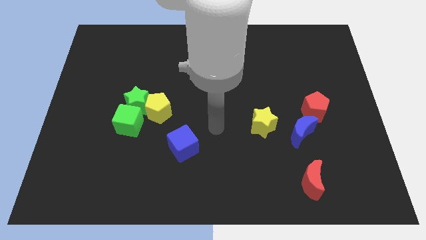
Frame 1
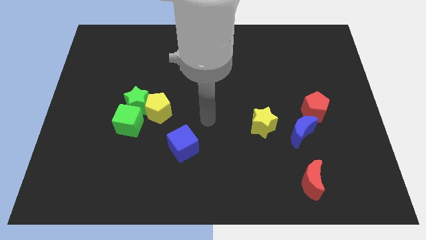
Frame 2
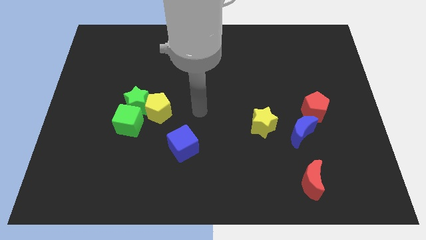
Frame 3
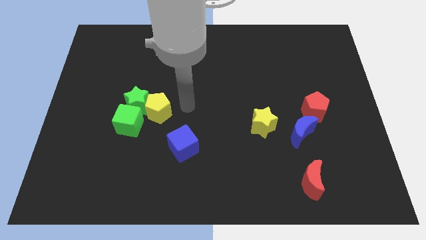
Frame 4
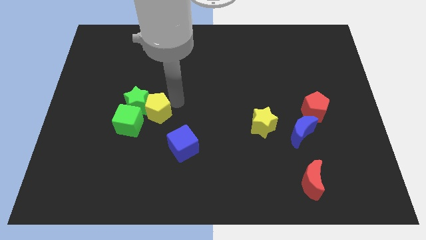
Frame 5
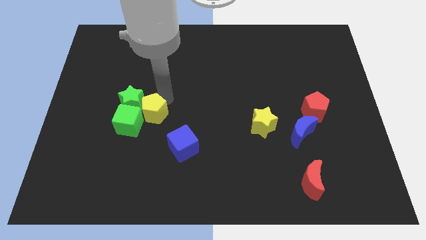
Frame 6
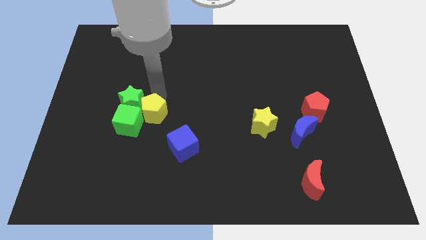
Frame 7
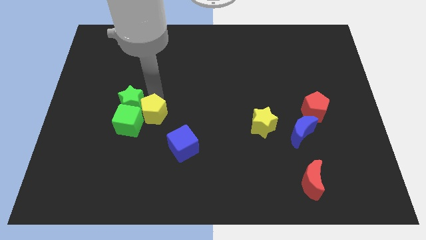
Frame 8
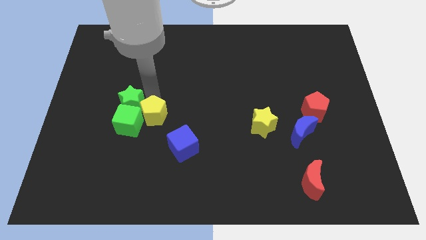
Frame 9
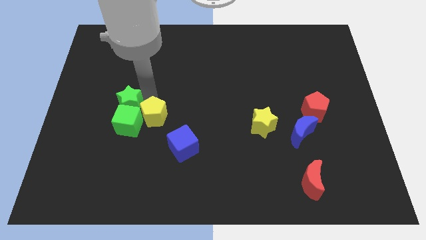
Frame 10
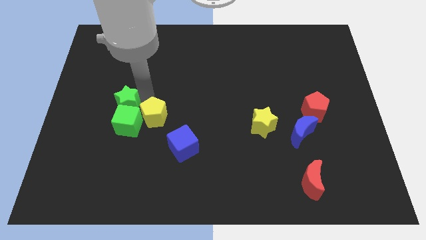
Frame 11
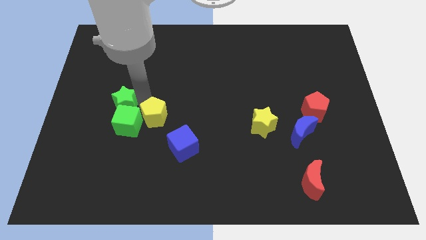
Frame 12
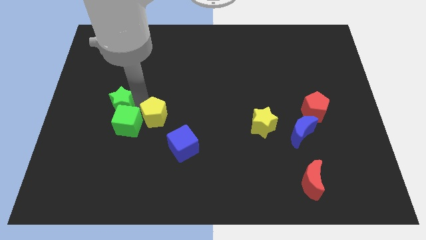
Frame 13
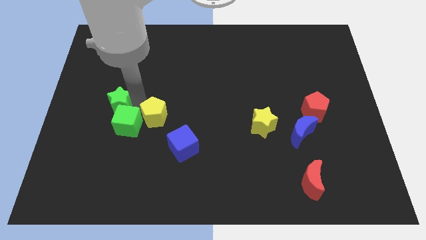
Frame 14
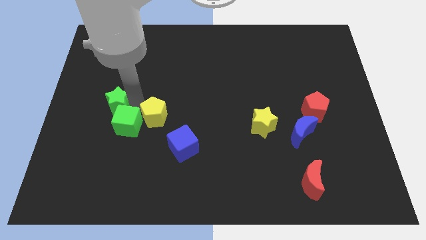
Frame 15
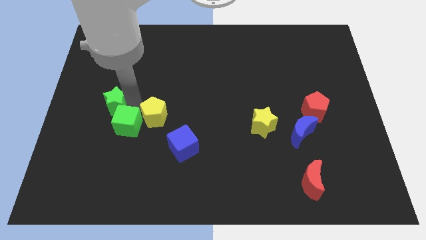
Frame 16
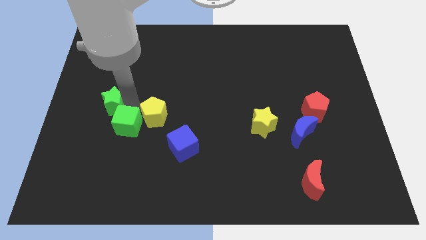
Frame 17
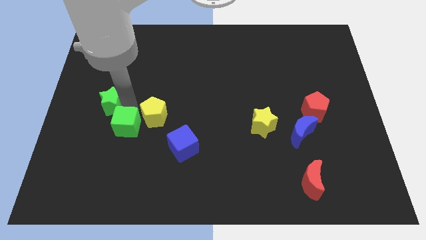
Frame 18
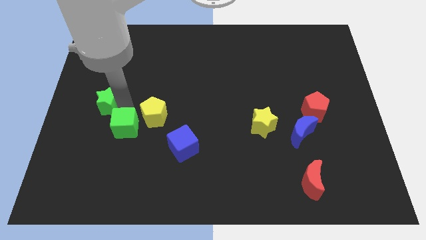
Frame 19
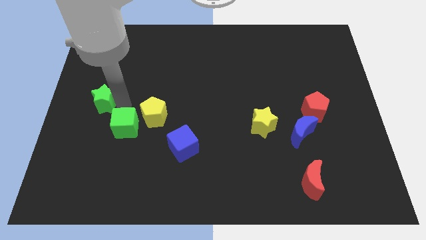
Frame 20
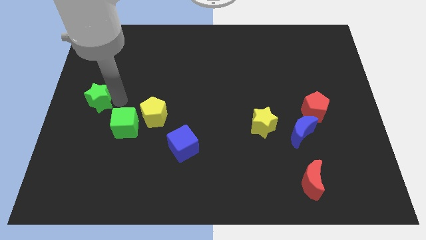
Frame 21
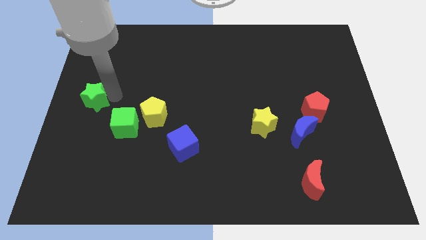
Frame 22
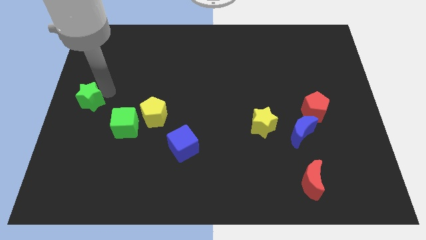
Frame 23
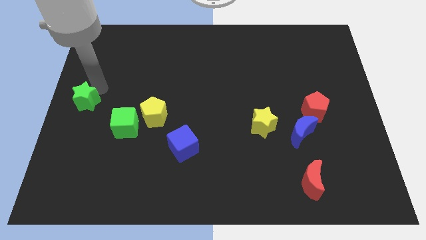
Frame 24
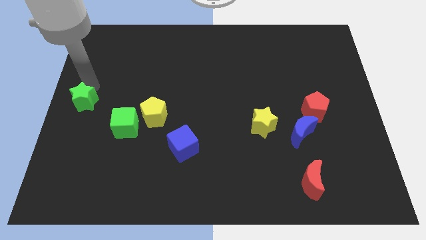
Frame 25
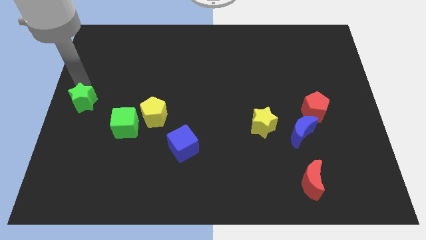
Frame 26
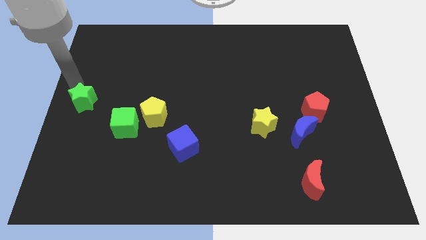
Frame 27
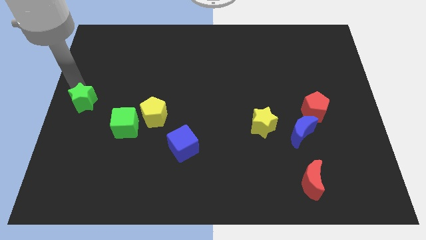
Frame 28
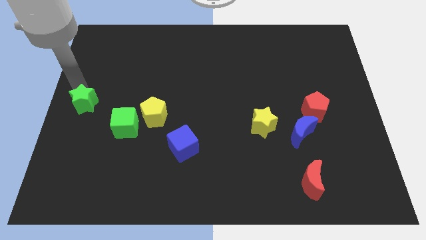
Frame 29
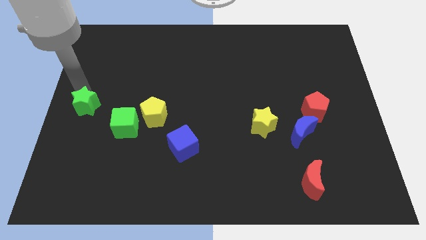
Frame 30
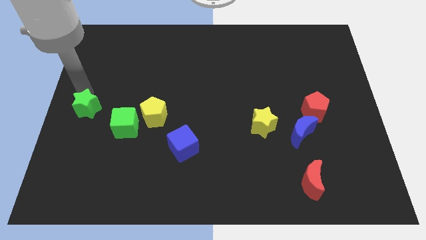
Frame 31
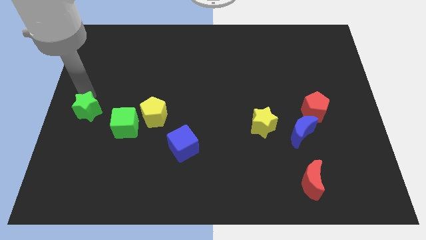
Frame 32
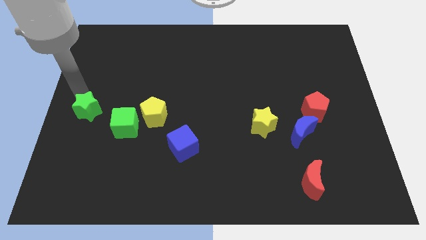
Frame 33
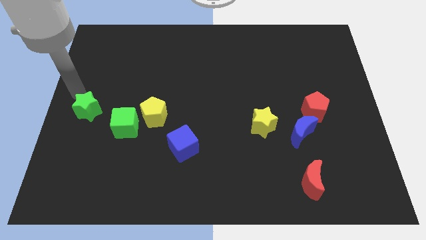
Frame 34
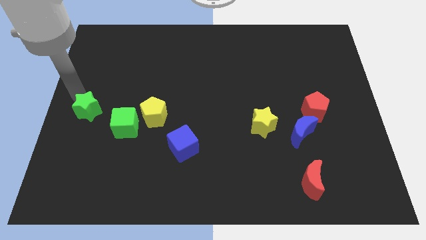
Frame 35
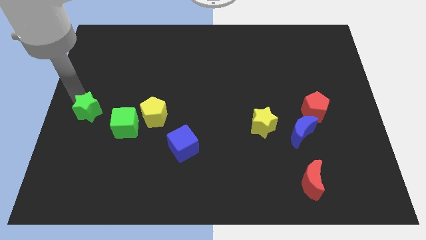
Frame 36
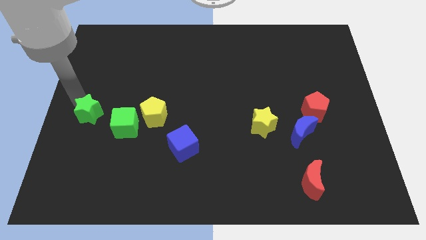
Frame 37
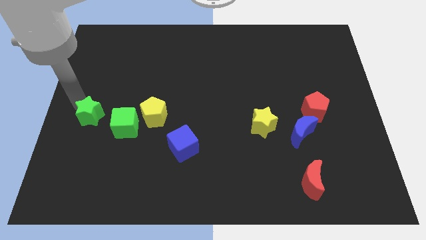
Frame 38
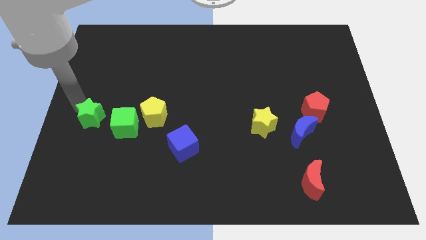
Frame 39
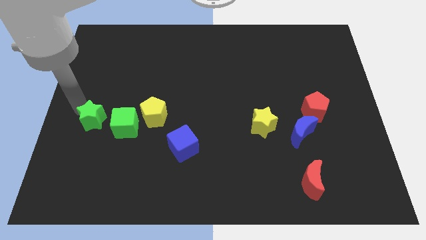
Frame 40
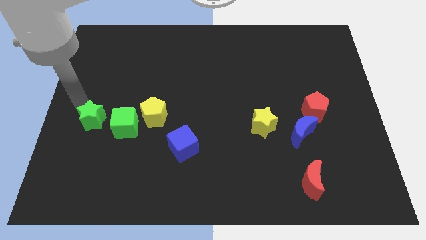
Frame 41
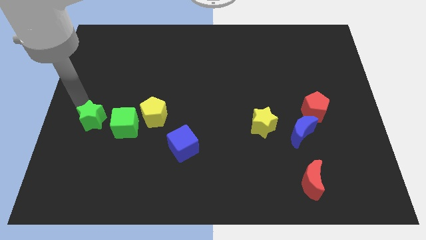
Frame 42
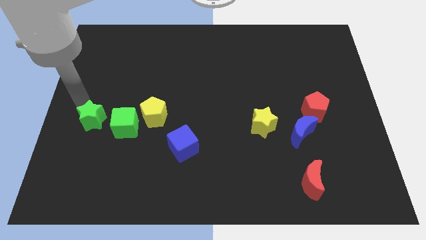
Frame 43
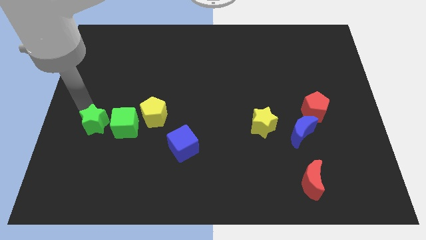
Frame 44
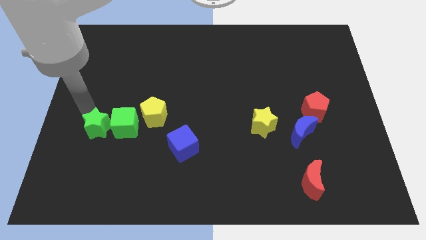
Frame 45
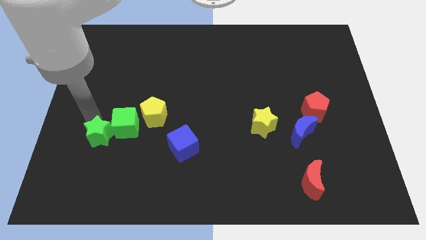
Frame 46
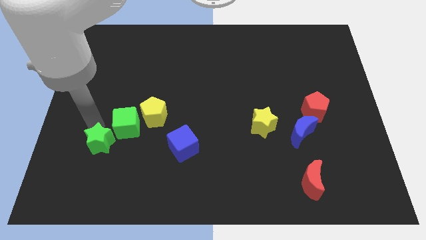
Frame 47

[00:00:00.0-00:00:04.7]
slide the green star downwards slightly

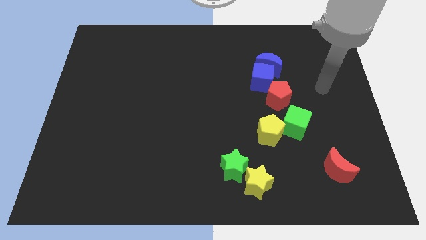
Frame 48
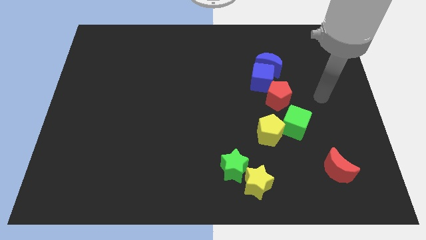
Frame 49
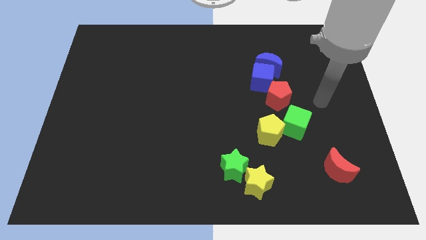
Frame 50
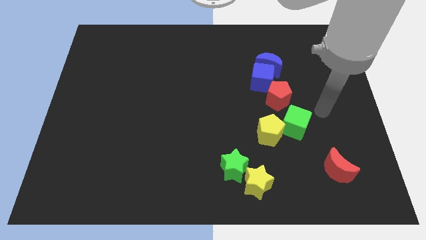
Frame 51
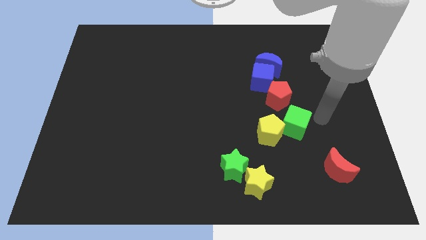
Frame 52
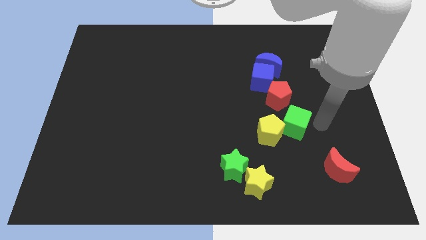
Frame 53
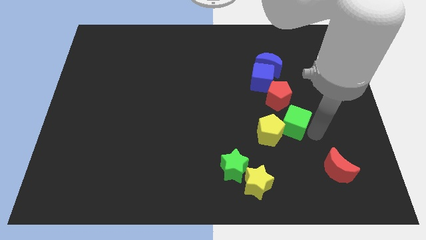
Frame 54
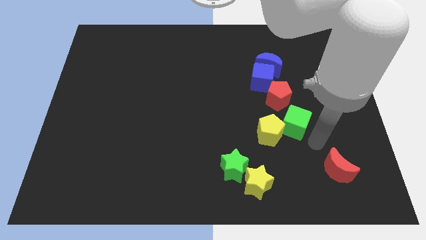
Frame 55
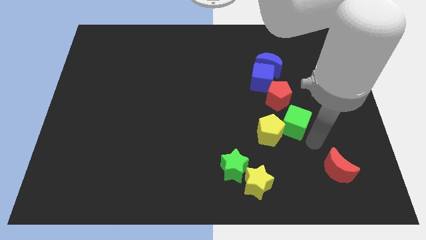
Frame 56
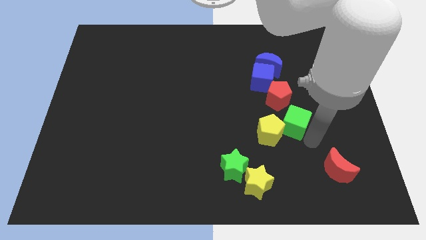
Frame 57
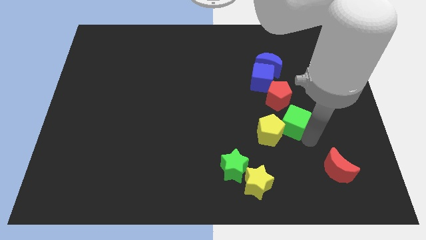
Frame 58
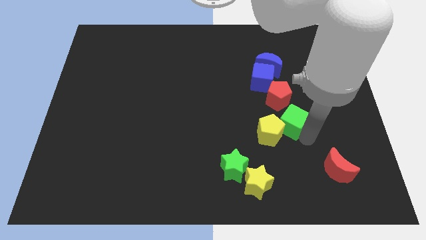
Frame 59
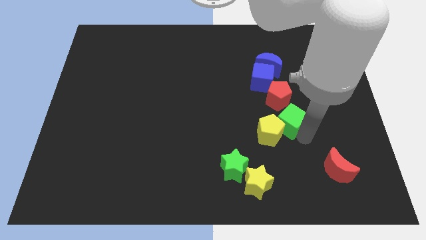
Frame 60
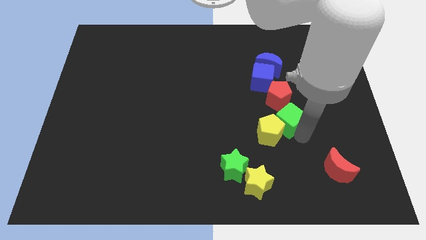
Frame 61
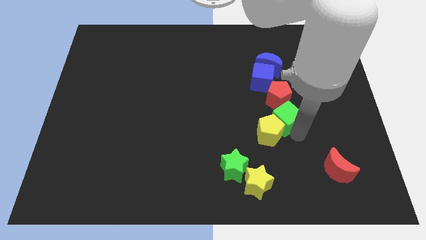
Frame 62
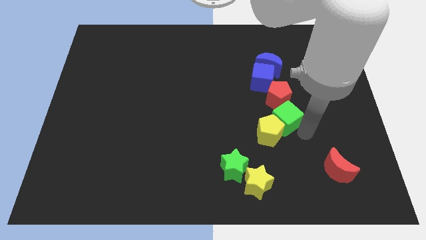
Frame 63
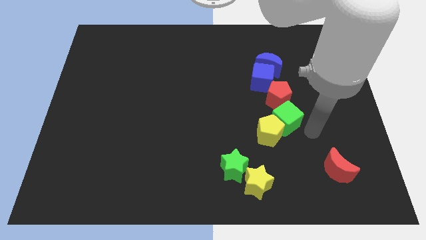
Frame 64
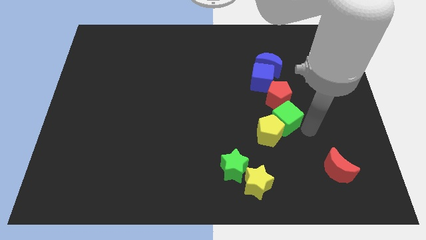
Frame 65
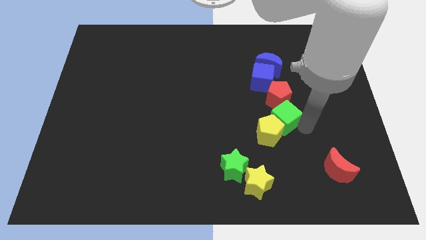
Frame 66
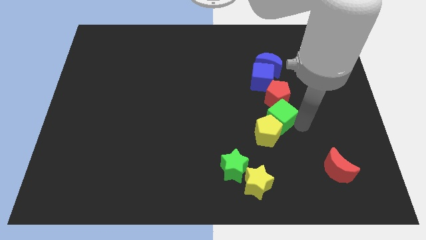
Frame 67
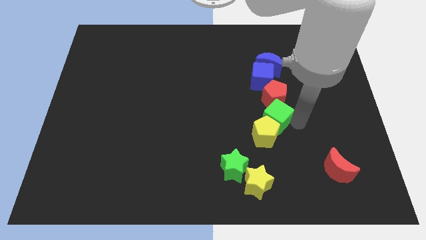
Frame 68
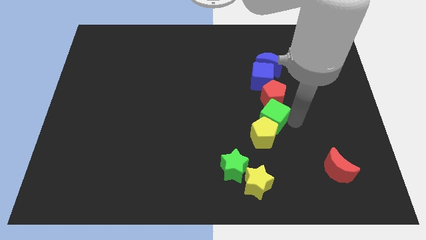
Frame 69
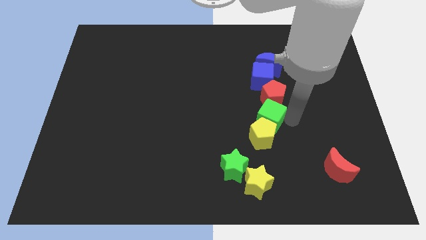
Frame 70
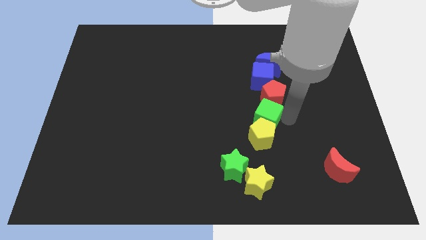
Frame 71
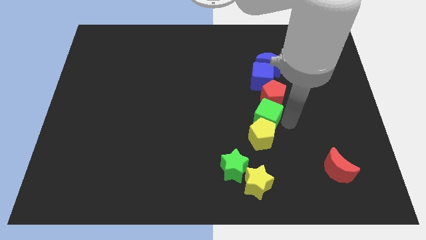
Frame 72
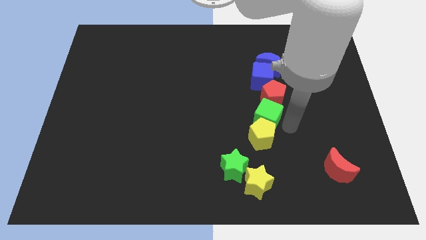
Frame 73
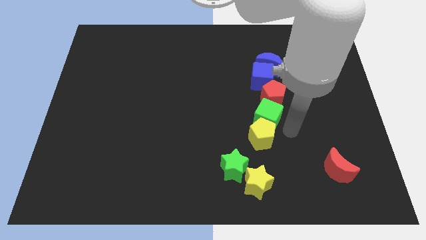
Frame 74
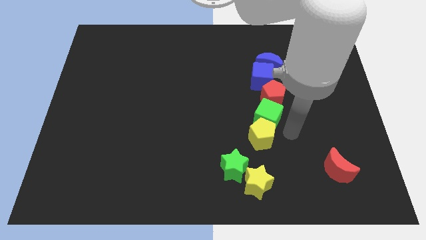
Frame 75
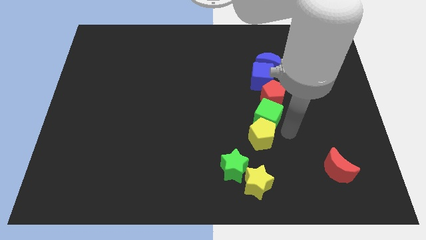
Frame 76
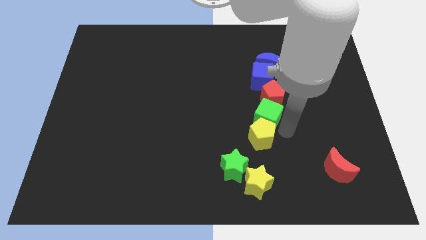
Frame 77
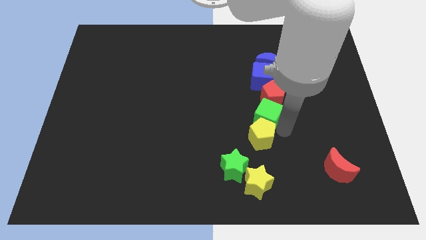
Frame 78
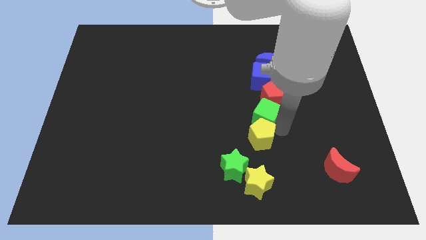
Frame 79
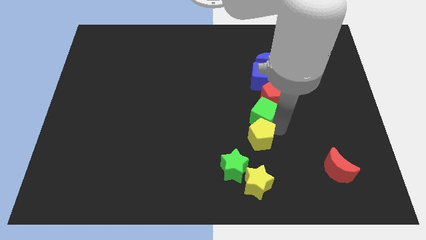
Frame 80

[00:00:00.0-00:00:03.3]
slide the green cube slightly left

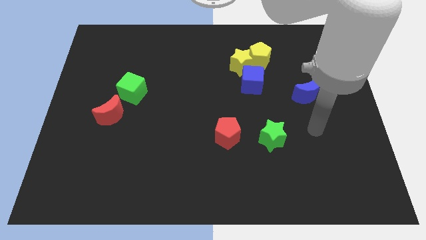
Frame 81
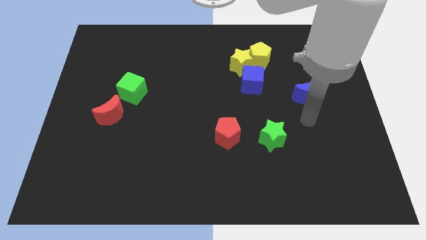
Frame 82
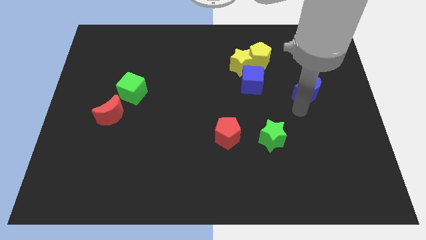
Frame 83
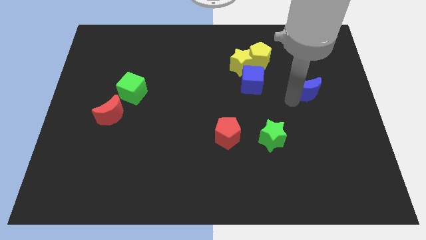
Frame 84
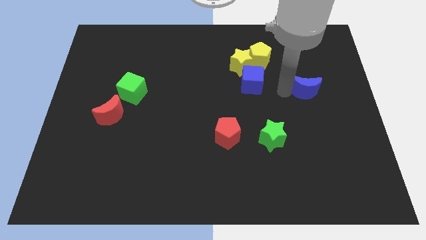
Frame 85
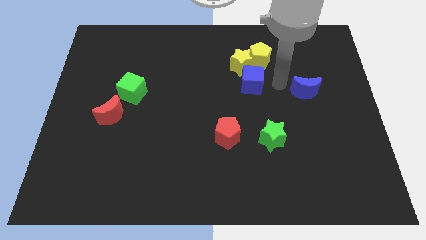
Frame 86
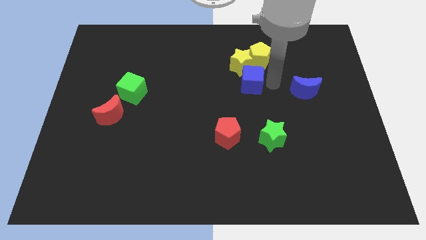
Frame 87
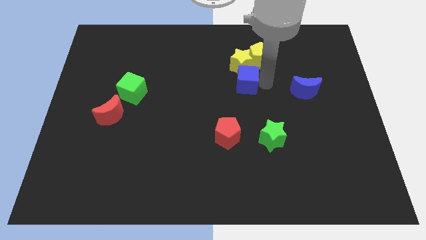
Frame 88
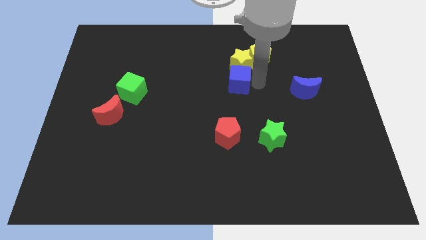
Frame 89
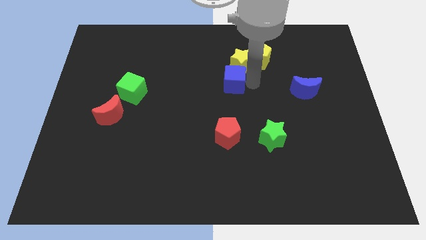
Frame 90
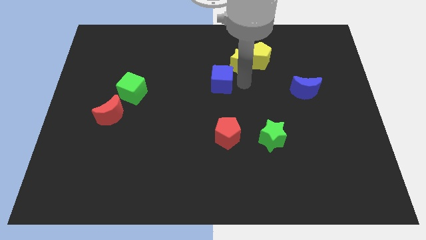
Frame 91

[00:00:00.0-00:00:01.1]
slightly slide the blue cube left
